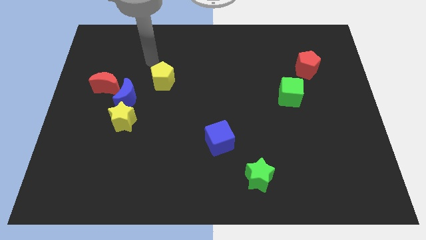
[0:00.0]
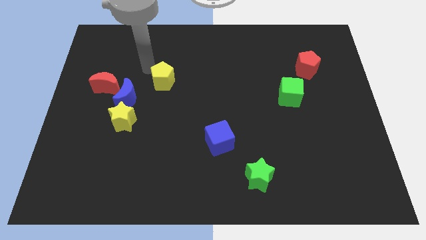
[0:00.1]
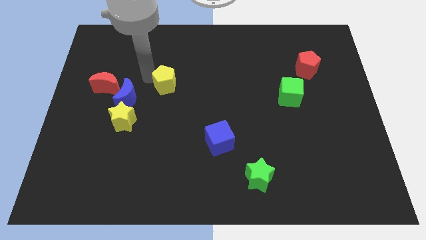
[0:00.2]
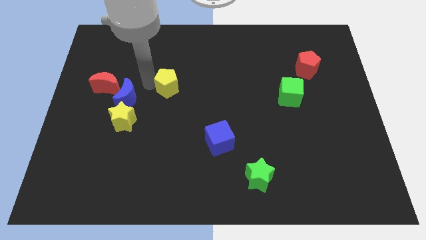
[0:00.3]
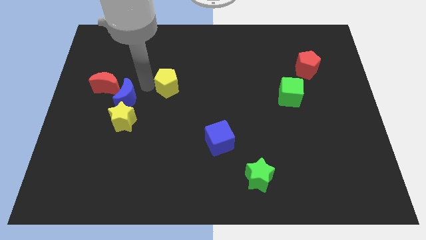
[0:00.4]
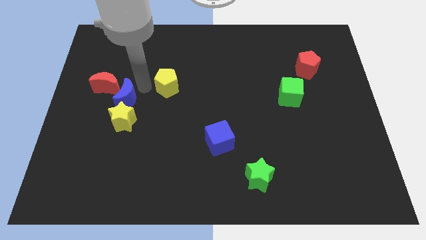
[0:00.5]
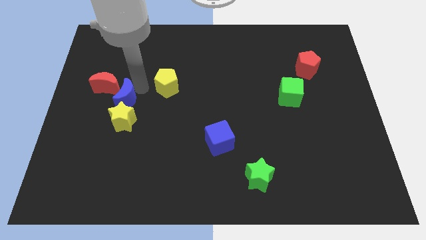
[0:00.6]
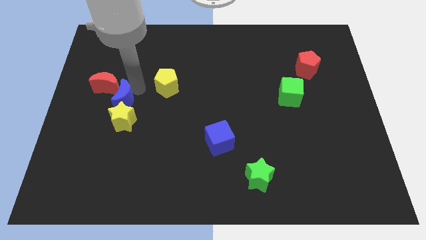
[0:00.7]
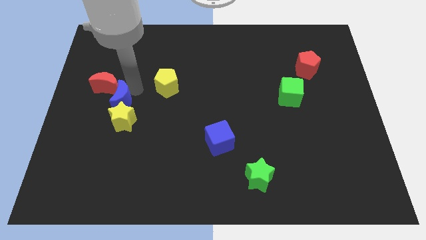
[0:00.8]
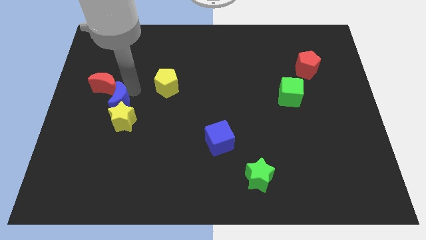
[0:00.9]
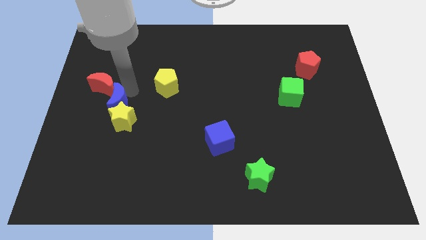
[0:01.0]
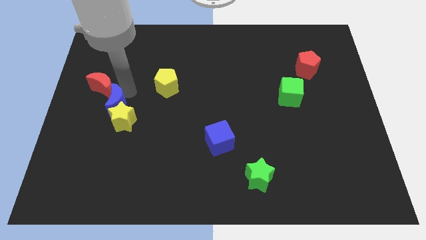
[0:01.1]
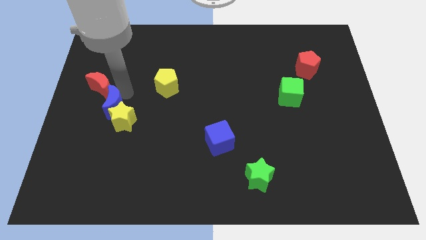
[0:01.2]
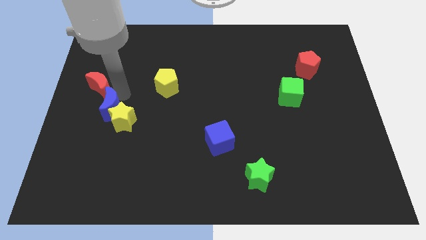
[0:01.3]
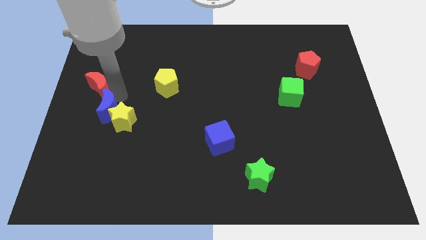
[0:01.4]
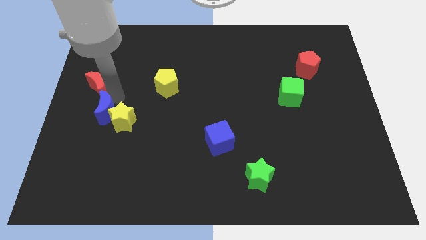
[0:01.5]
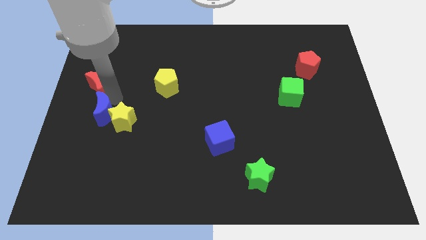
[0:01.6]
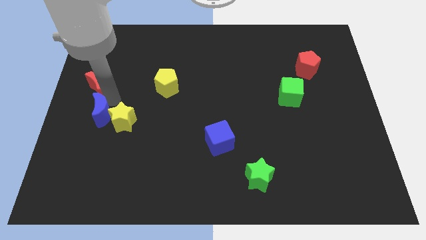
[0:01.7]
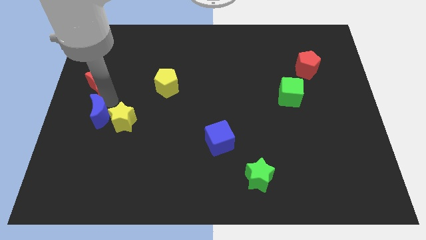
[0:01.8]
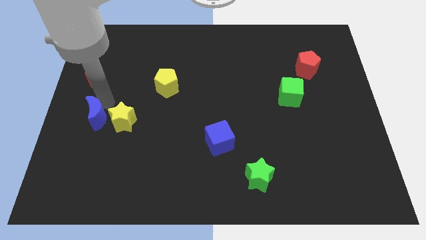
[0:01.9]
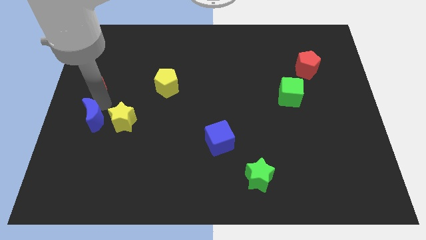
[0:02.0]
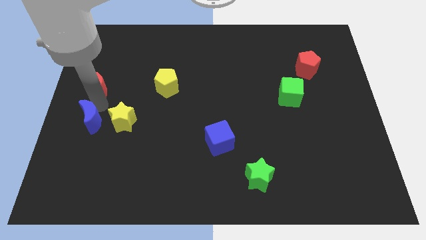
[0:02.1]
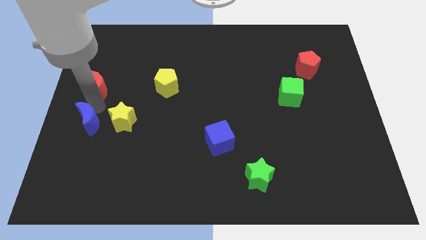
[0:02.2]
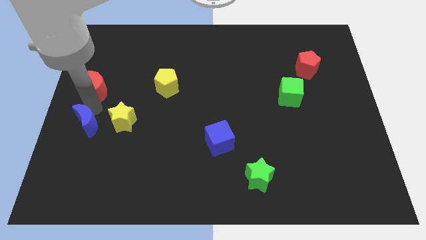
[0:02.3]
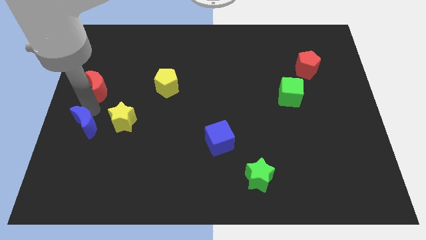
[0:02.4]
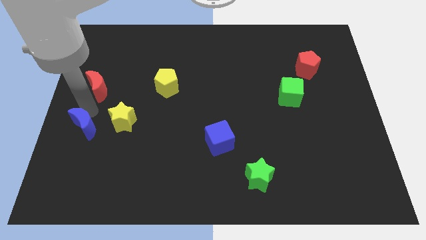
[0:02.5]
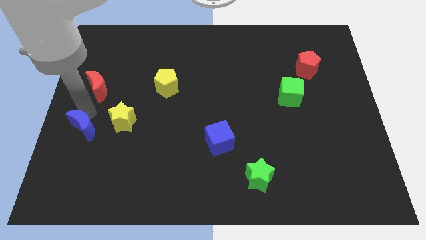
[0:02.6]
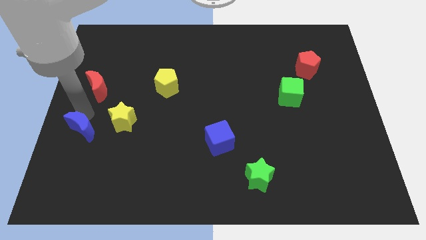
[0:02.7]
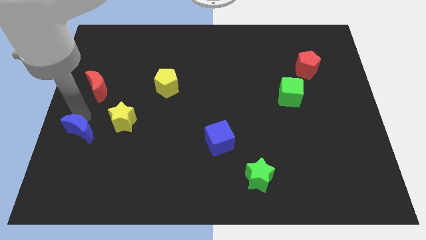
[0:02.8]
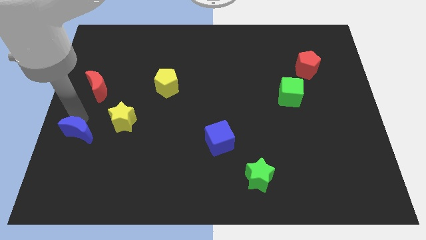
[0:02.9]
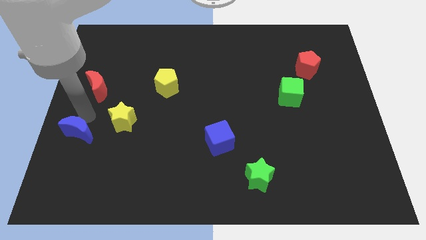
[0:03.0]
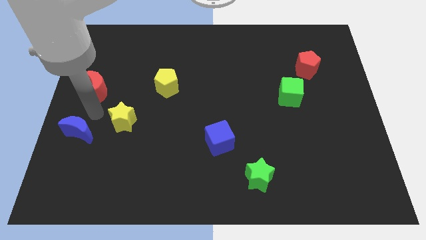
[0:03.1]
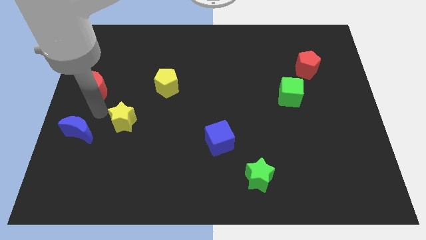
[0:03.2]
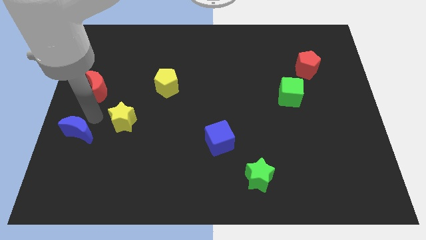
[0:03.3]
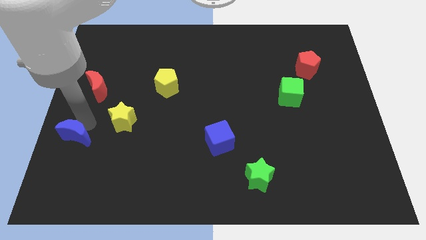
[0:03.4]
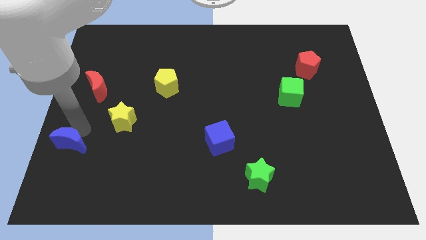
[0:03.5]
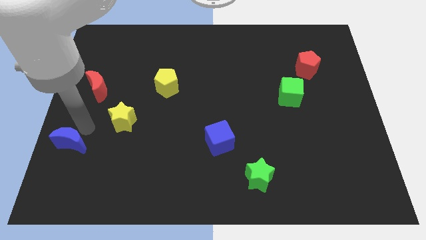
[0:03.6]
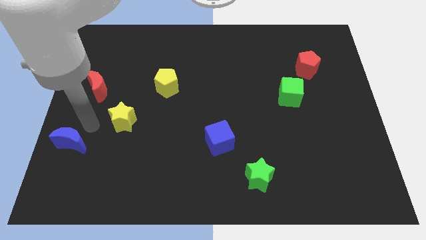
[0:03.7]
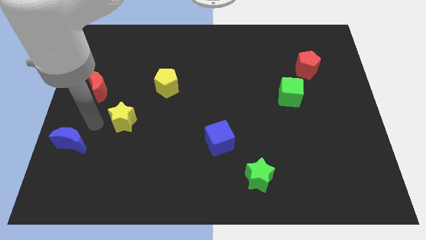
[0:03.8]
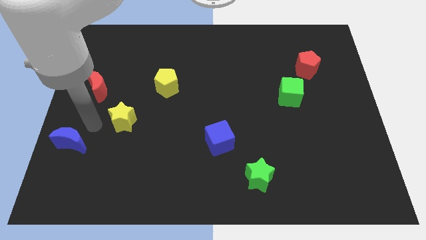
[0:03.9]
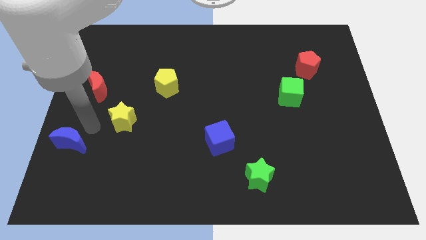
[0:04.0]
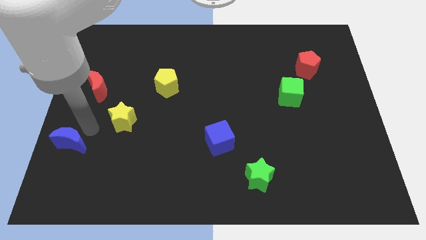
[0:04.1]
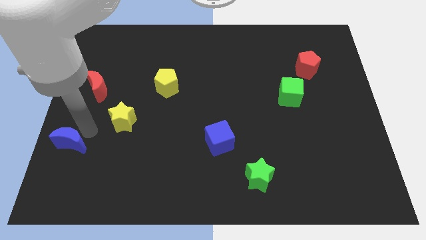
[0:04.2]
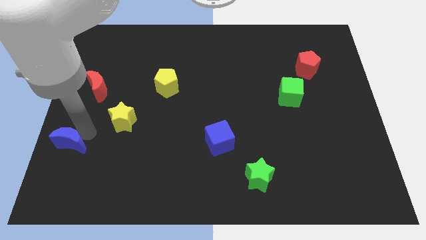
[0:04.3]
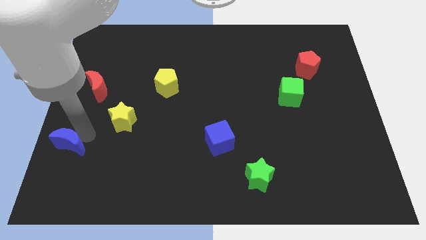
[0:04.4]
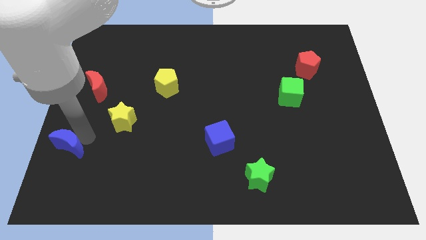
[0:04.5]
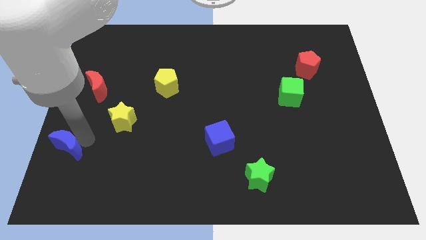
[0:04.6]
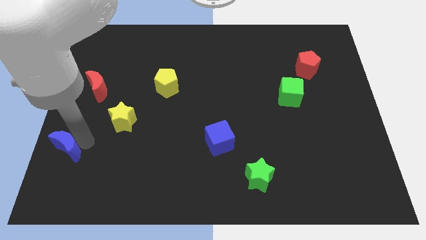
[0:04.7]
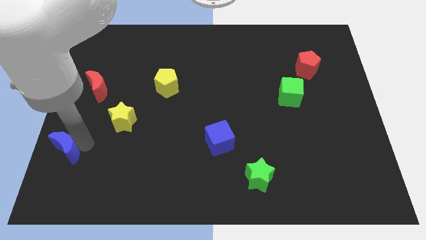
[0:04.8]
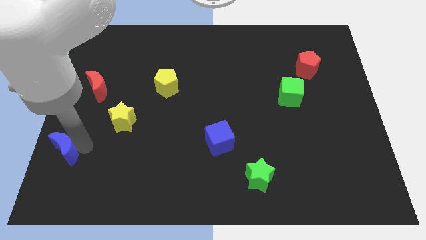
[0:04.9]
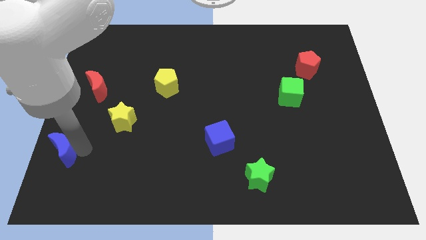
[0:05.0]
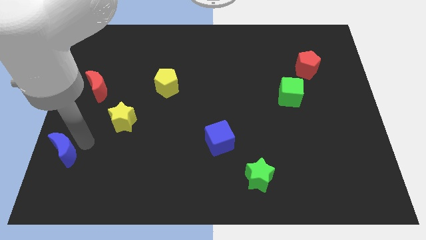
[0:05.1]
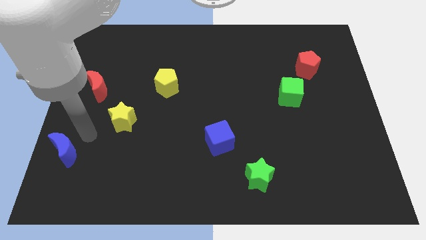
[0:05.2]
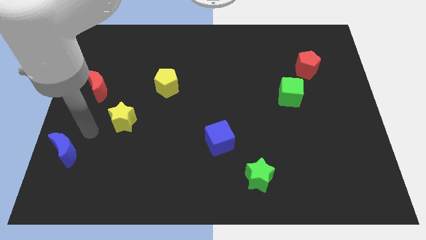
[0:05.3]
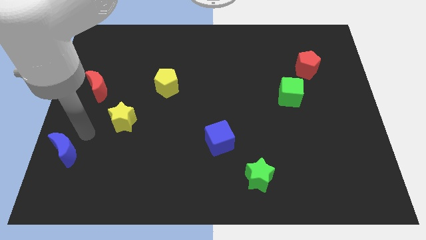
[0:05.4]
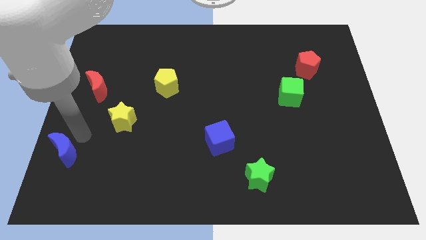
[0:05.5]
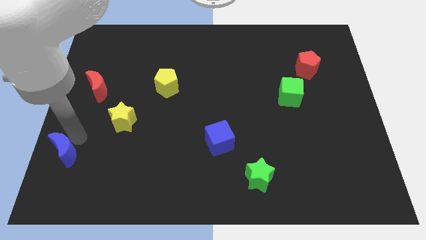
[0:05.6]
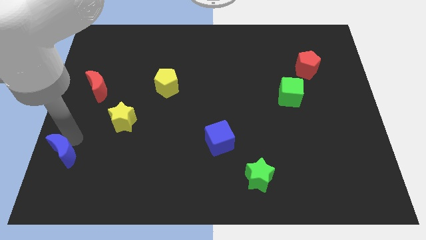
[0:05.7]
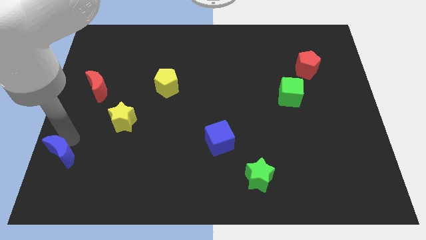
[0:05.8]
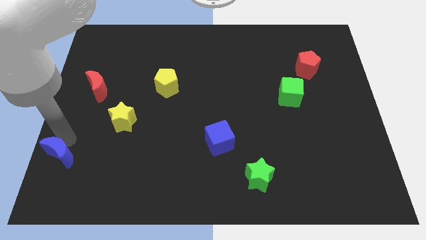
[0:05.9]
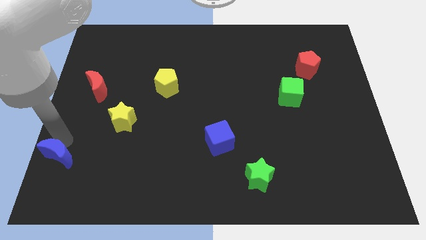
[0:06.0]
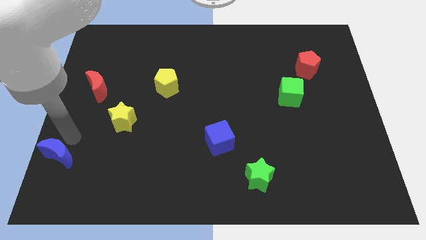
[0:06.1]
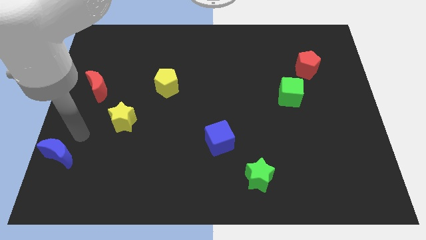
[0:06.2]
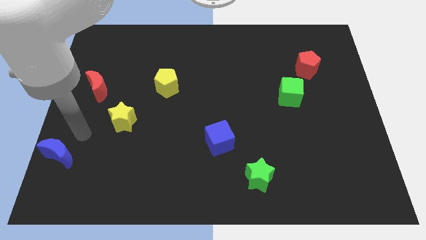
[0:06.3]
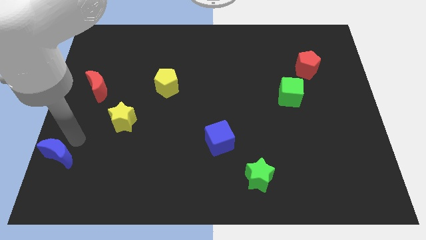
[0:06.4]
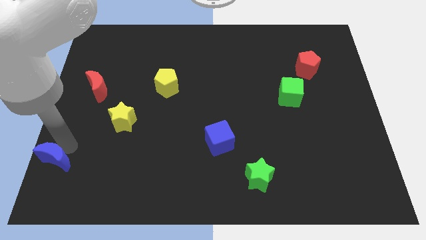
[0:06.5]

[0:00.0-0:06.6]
slide the blue moon to the bottom left

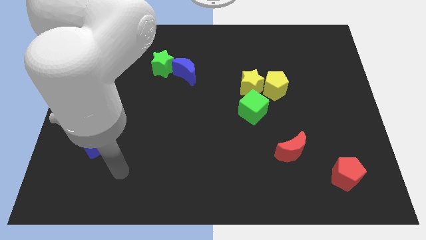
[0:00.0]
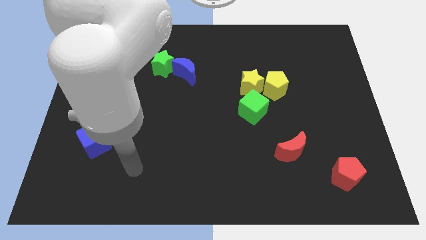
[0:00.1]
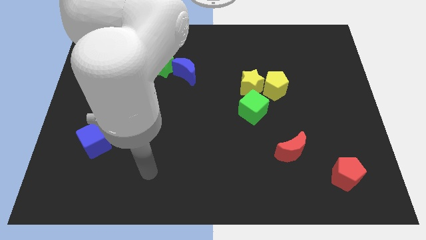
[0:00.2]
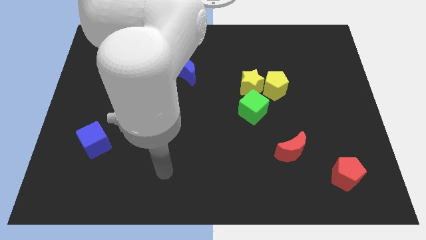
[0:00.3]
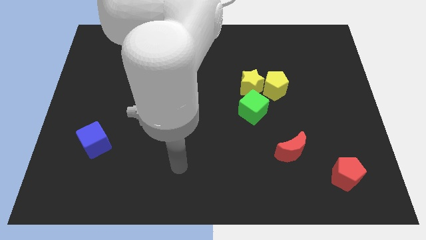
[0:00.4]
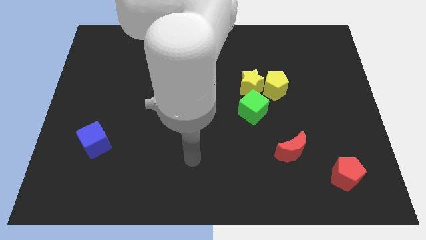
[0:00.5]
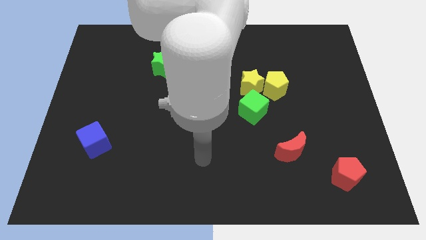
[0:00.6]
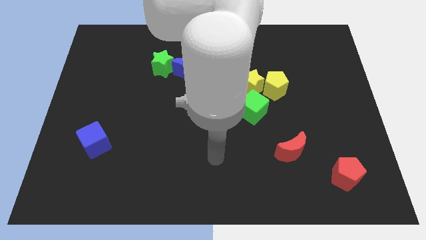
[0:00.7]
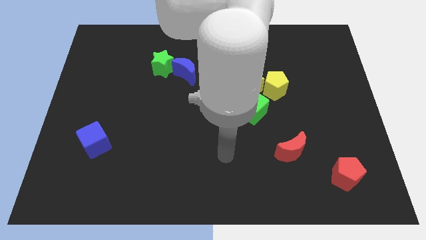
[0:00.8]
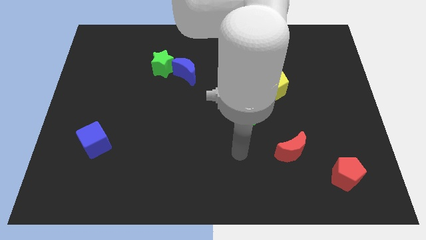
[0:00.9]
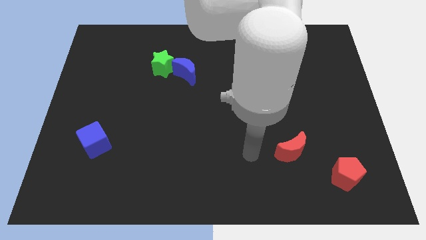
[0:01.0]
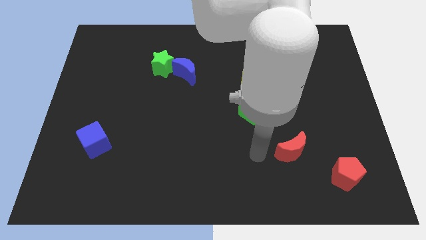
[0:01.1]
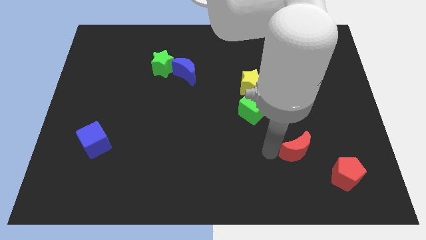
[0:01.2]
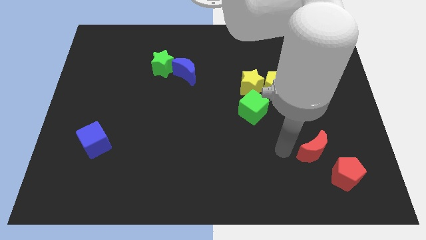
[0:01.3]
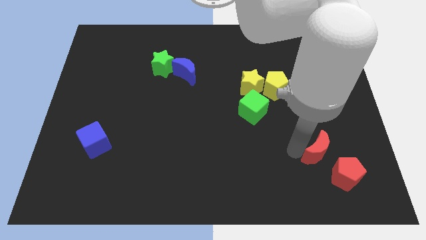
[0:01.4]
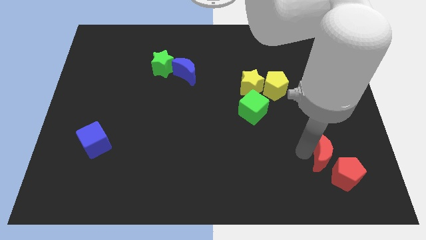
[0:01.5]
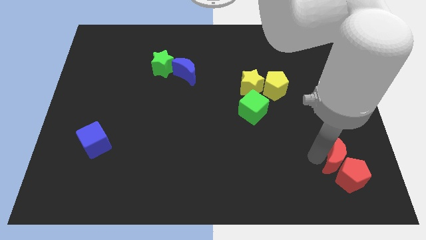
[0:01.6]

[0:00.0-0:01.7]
put the red pentagon to the bottom right of the board
